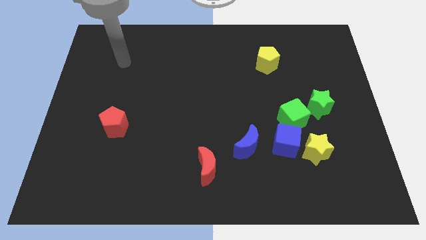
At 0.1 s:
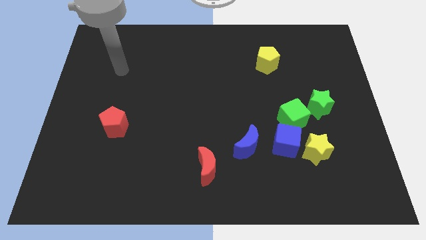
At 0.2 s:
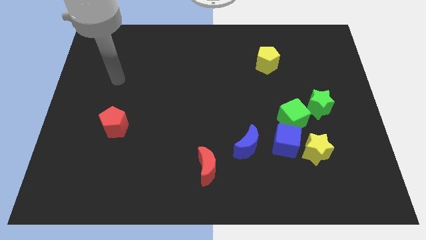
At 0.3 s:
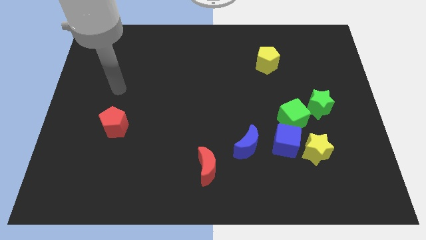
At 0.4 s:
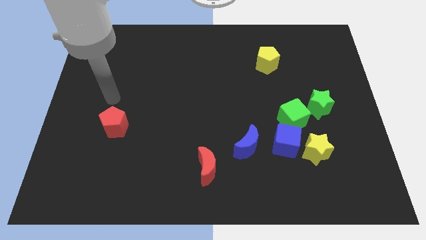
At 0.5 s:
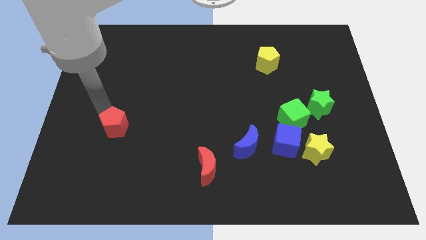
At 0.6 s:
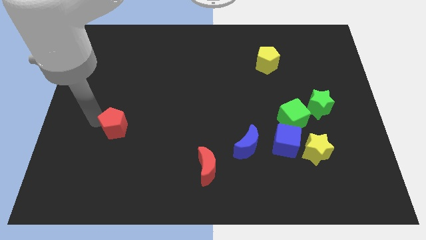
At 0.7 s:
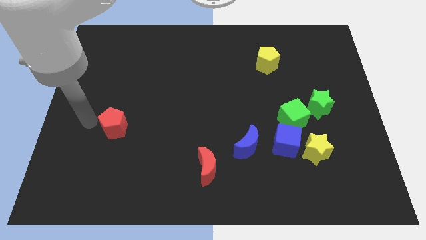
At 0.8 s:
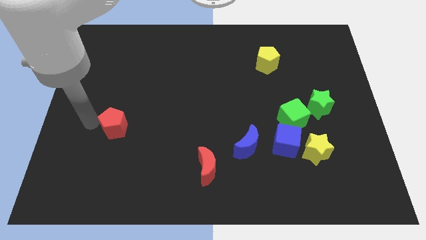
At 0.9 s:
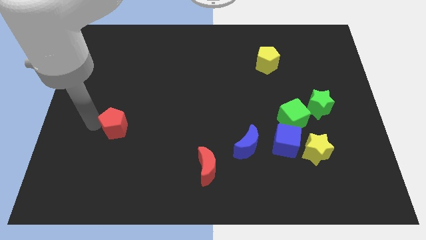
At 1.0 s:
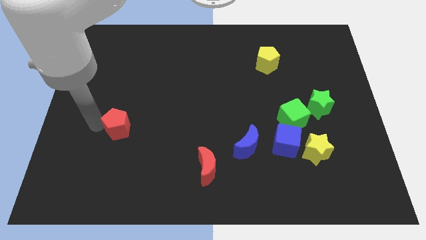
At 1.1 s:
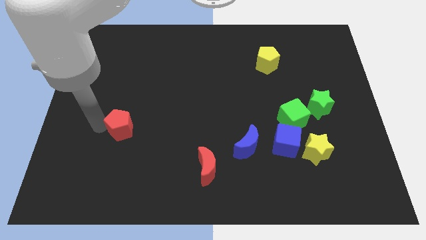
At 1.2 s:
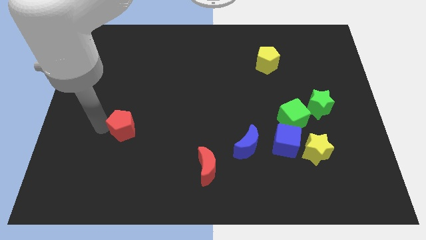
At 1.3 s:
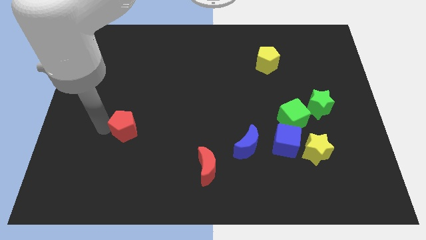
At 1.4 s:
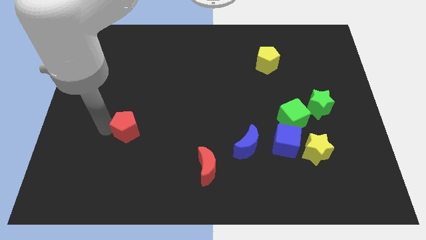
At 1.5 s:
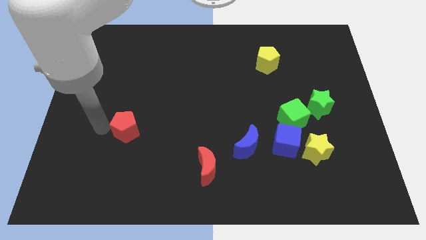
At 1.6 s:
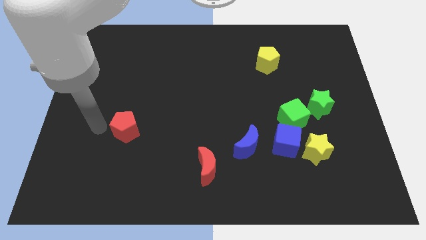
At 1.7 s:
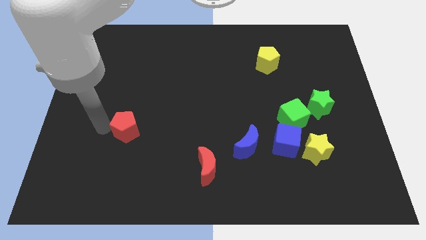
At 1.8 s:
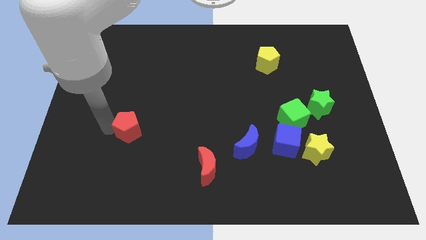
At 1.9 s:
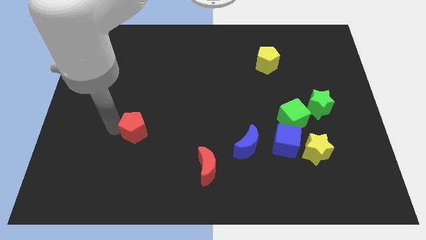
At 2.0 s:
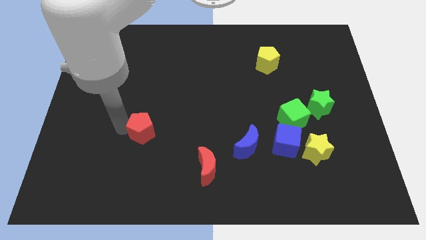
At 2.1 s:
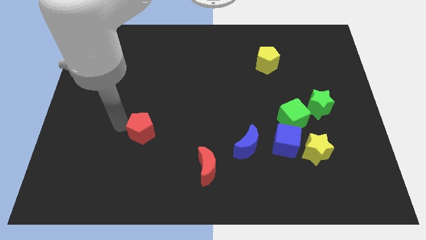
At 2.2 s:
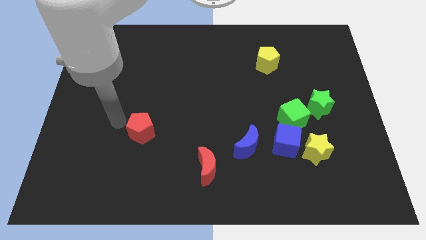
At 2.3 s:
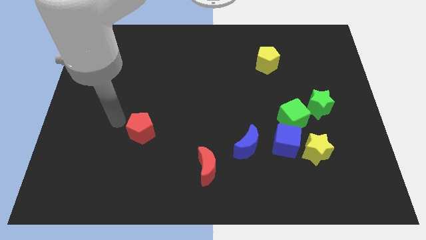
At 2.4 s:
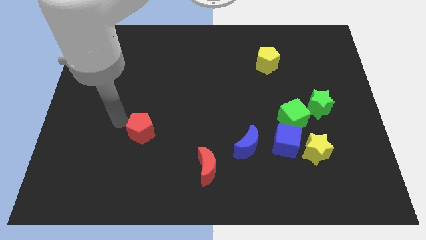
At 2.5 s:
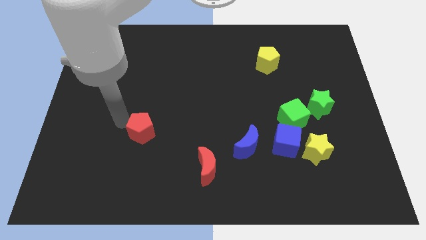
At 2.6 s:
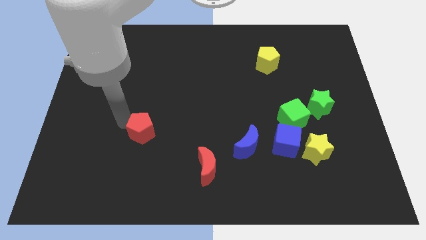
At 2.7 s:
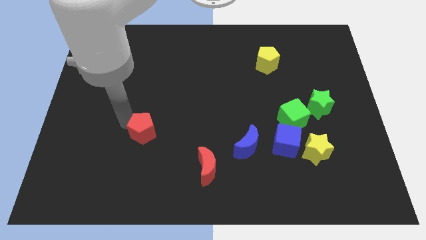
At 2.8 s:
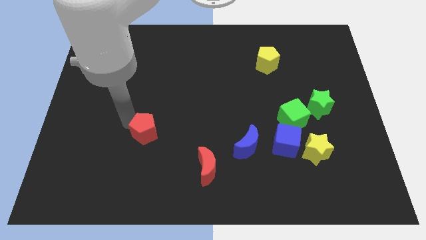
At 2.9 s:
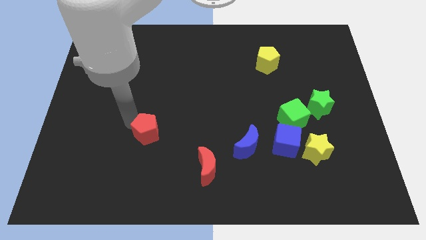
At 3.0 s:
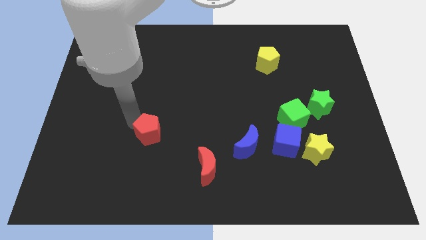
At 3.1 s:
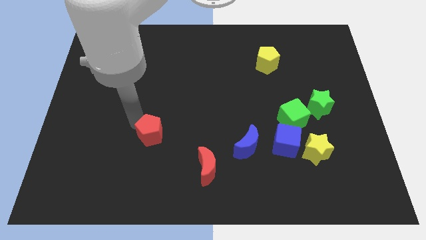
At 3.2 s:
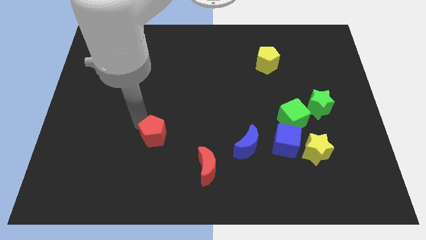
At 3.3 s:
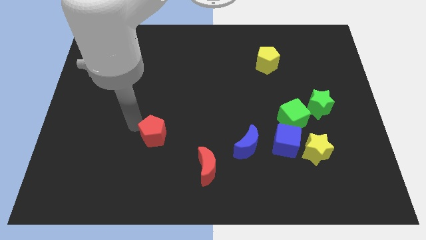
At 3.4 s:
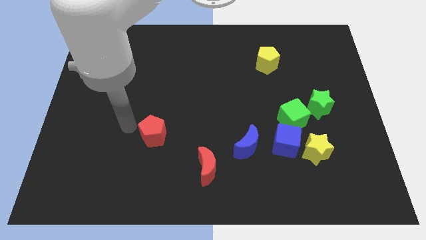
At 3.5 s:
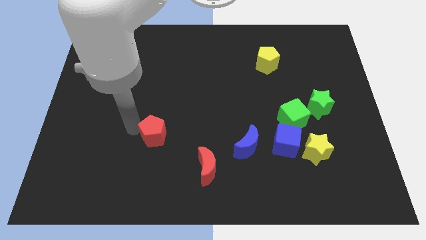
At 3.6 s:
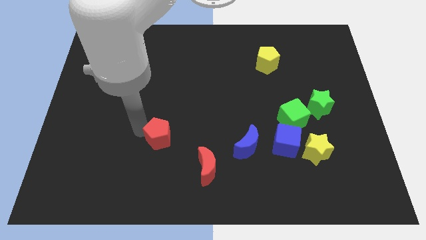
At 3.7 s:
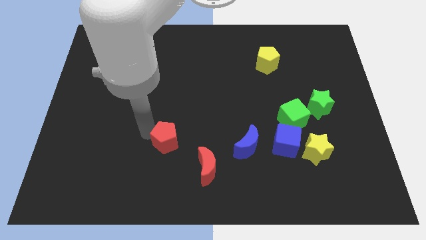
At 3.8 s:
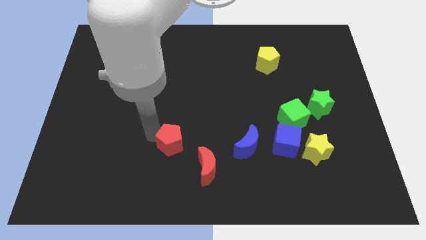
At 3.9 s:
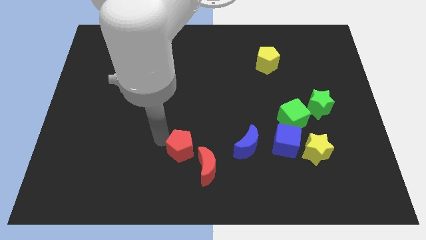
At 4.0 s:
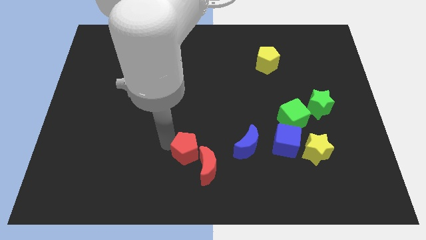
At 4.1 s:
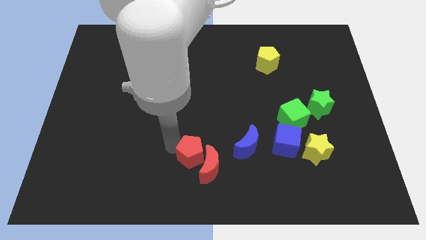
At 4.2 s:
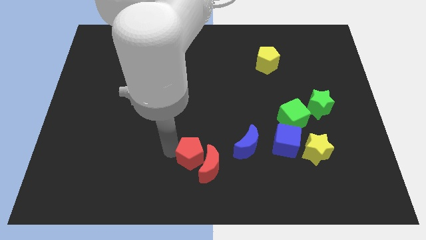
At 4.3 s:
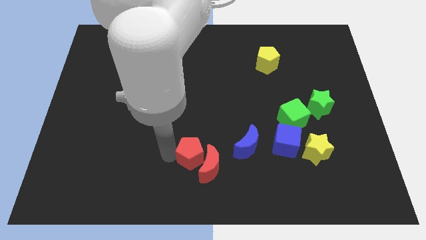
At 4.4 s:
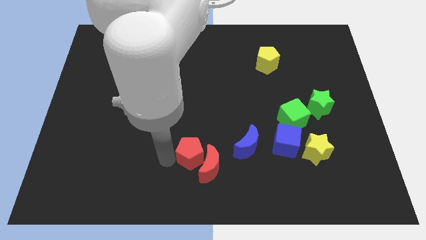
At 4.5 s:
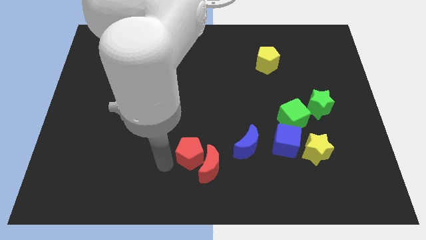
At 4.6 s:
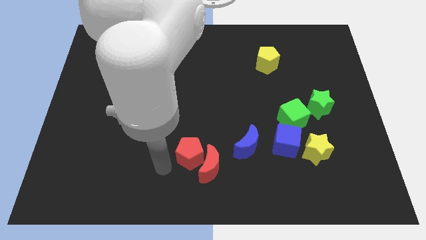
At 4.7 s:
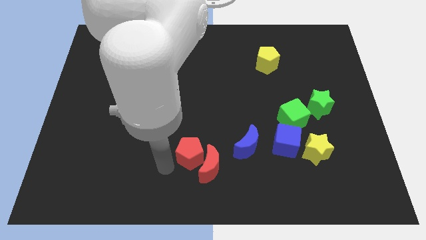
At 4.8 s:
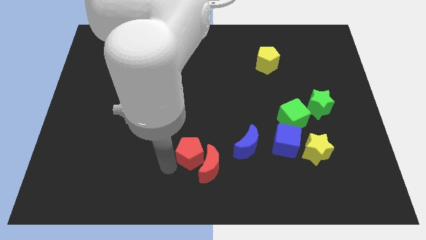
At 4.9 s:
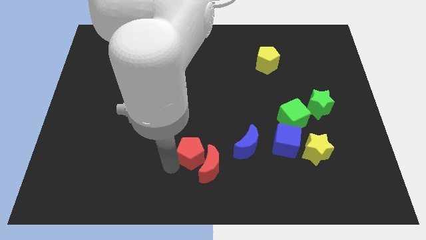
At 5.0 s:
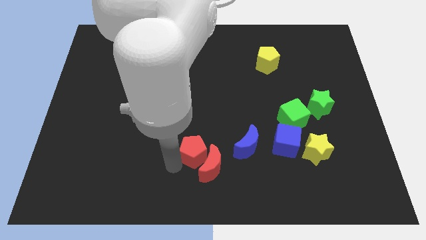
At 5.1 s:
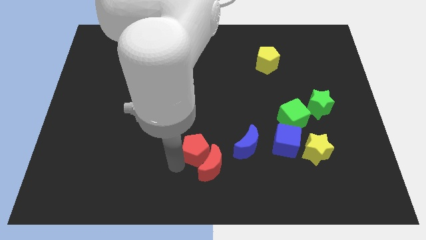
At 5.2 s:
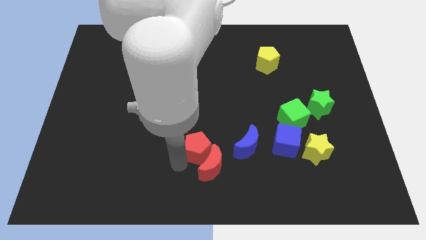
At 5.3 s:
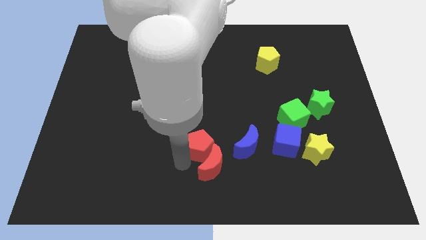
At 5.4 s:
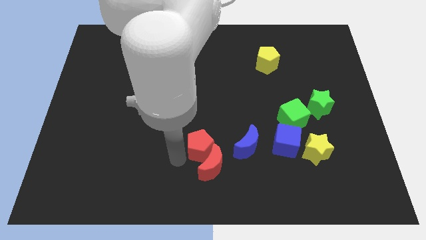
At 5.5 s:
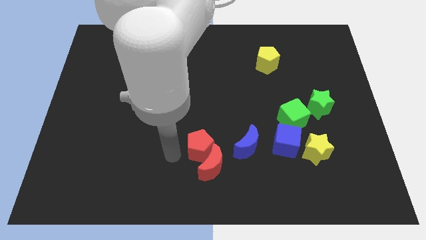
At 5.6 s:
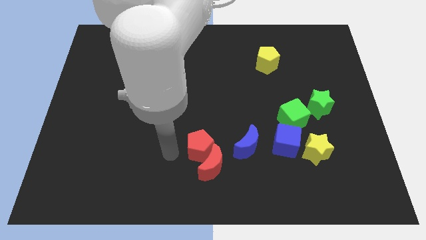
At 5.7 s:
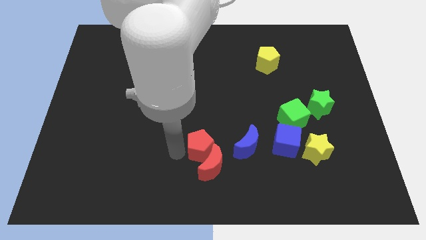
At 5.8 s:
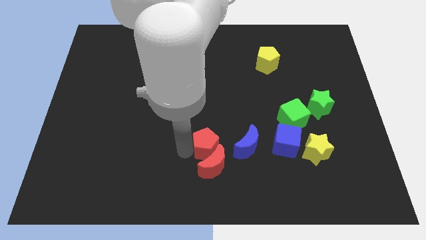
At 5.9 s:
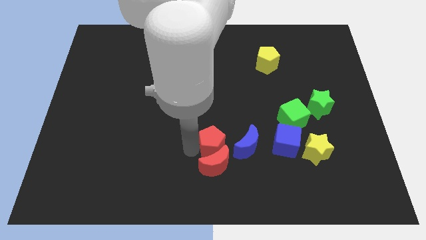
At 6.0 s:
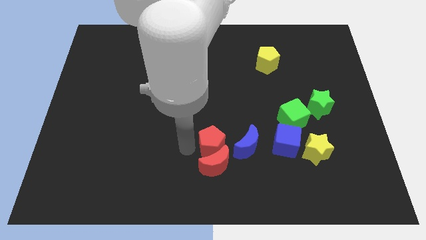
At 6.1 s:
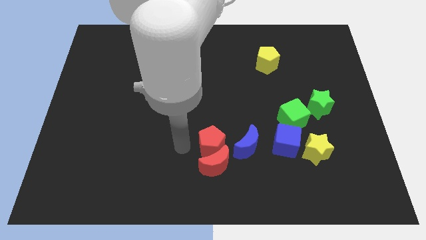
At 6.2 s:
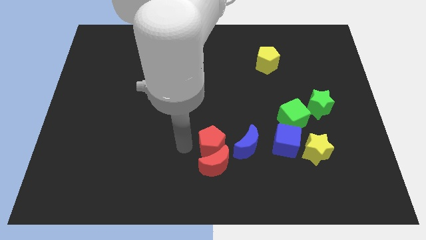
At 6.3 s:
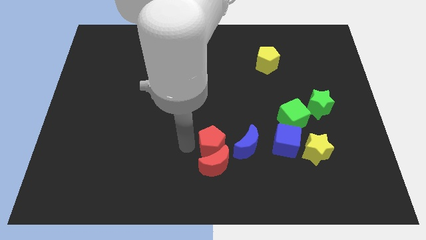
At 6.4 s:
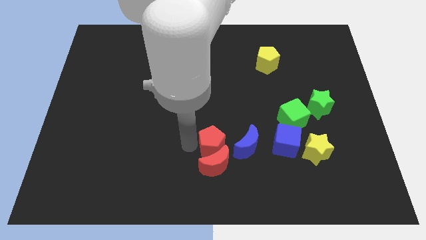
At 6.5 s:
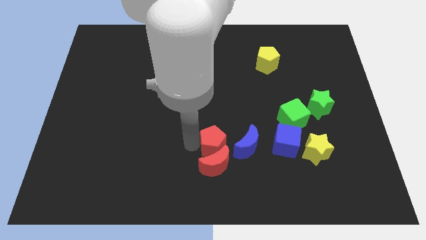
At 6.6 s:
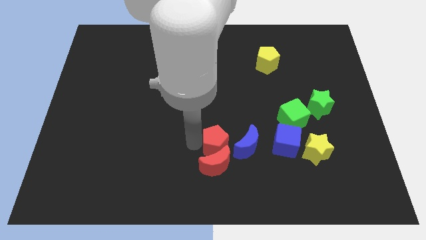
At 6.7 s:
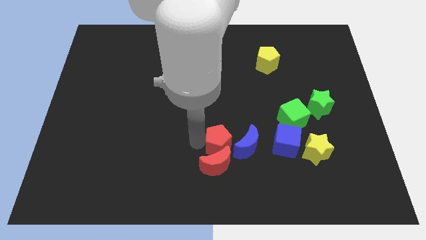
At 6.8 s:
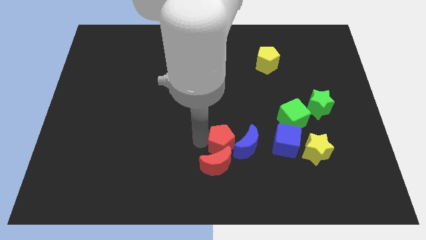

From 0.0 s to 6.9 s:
push the red pentagon towards the blue moon

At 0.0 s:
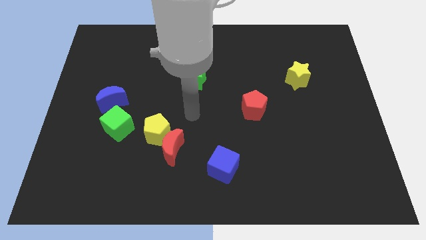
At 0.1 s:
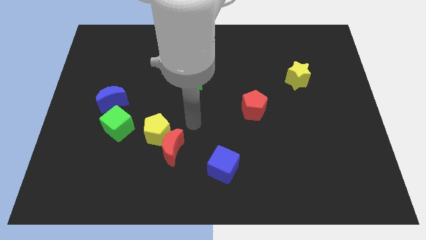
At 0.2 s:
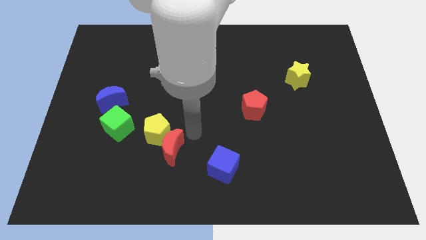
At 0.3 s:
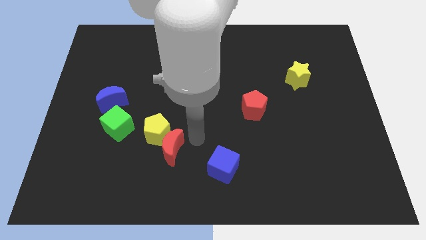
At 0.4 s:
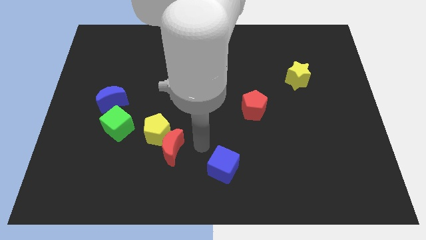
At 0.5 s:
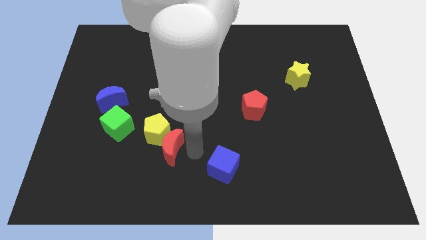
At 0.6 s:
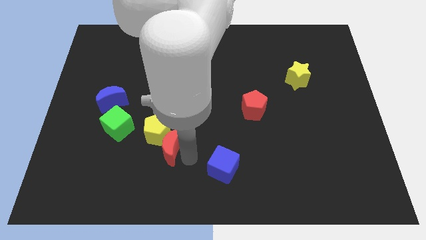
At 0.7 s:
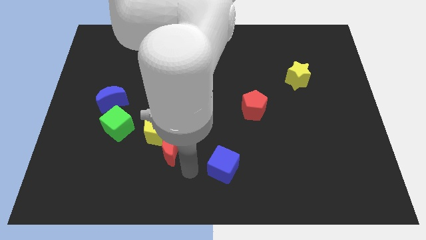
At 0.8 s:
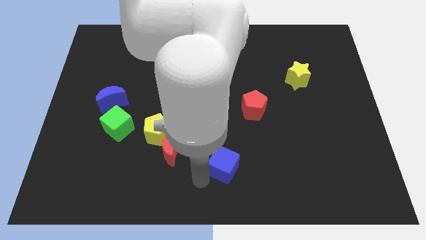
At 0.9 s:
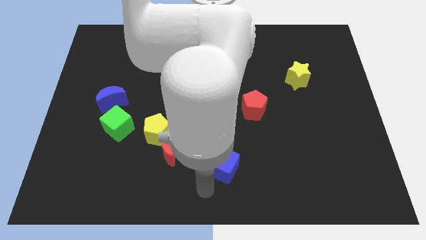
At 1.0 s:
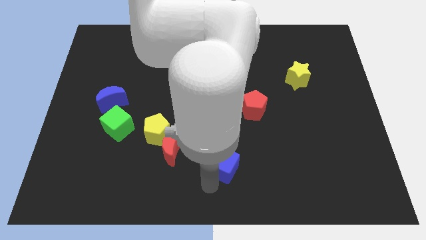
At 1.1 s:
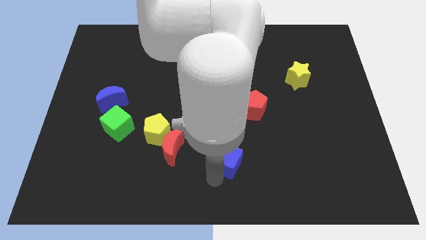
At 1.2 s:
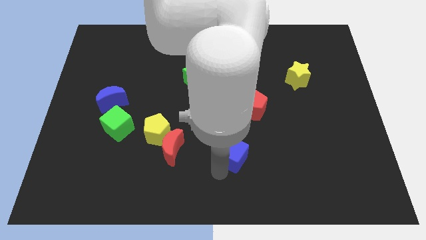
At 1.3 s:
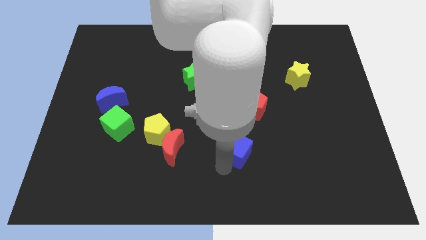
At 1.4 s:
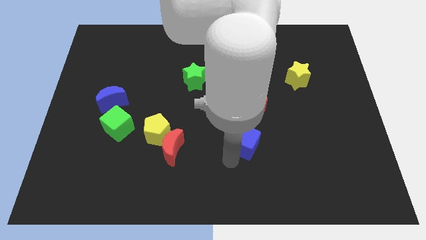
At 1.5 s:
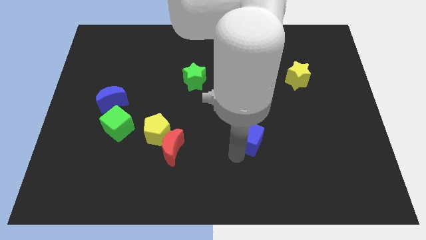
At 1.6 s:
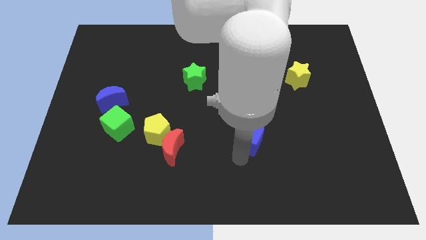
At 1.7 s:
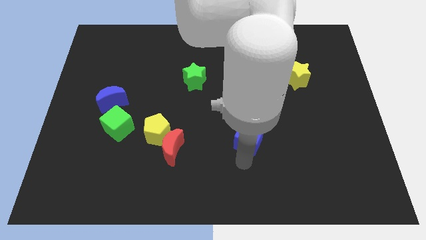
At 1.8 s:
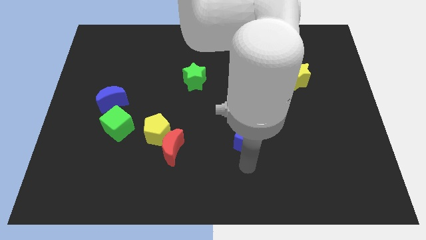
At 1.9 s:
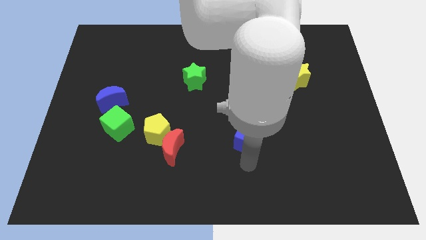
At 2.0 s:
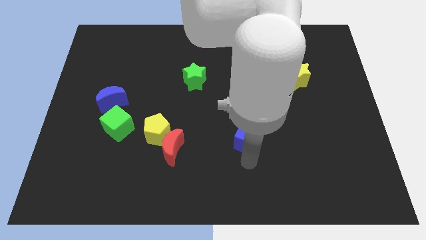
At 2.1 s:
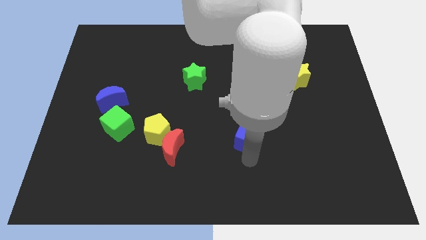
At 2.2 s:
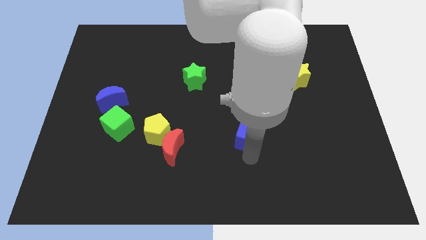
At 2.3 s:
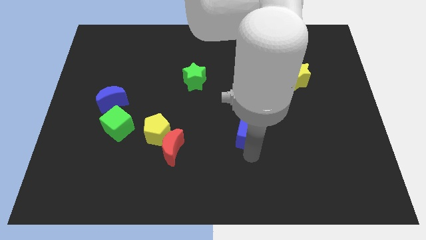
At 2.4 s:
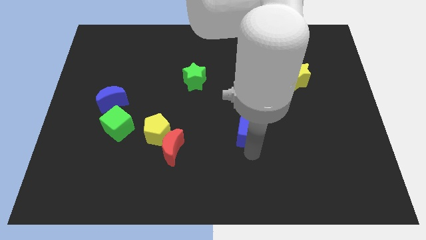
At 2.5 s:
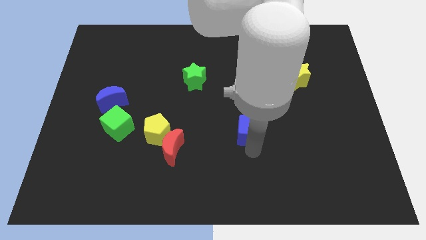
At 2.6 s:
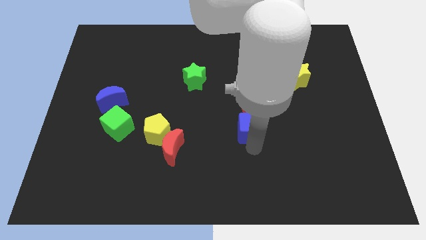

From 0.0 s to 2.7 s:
push the blue cube to the red pentagon
